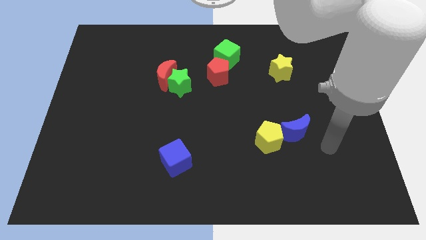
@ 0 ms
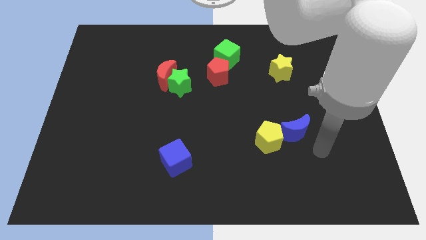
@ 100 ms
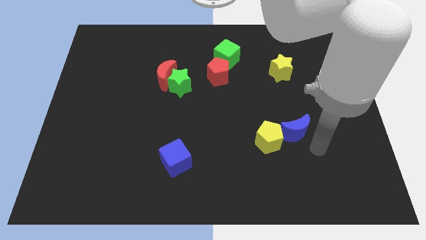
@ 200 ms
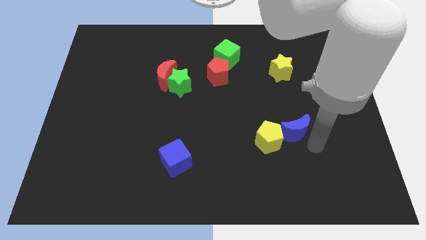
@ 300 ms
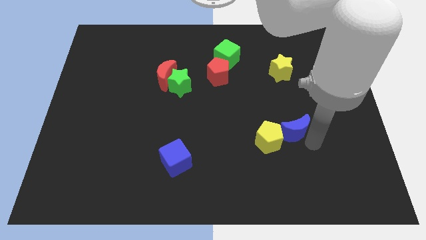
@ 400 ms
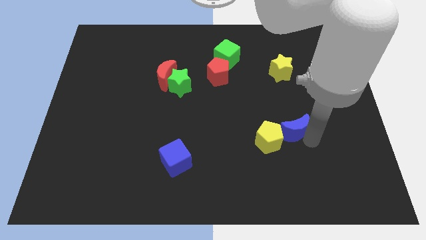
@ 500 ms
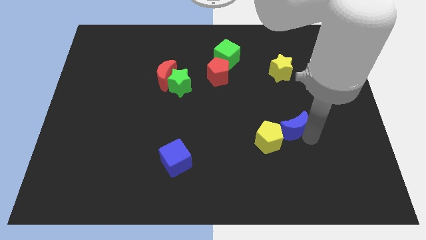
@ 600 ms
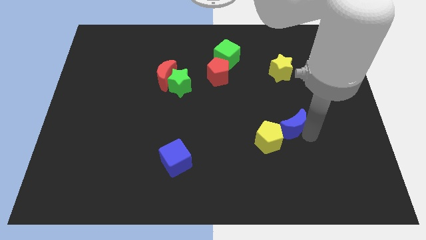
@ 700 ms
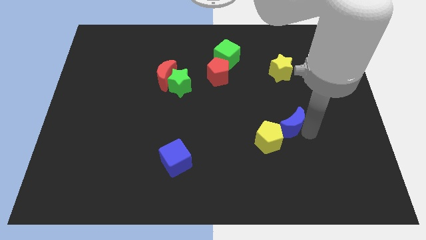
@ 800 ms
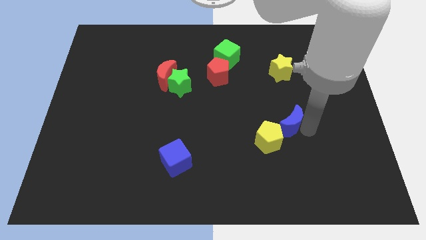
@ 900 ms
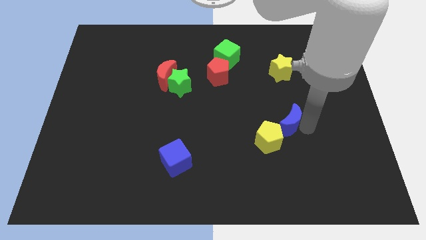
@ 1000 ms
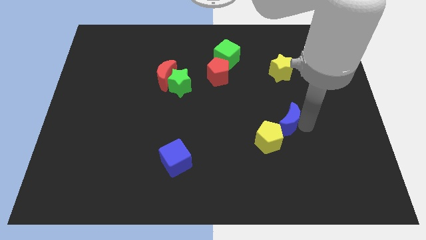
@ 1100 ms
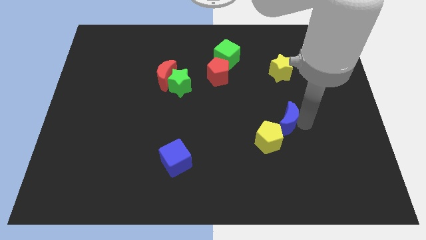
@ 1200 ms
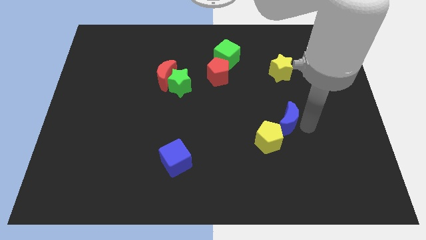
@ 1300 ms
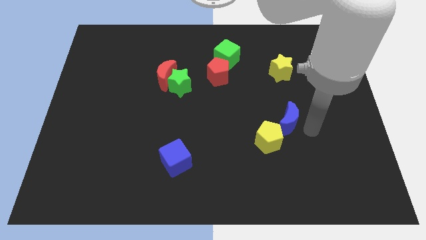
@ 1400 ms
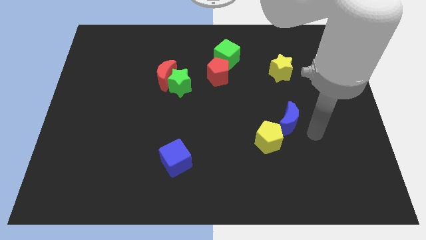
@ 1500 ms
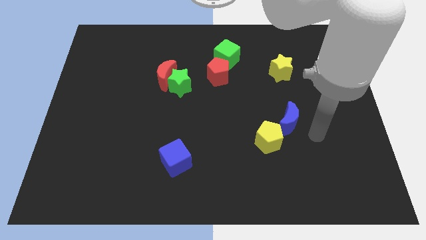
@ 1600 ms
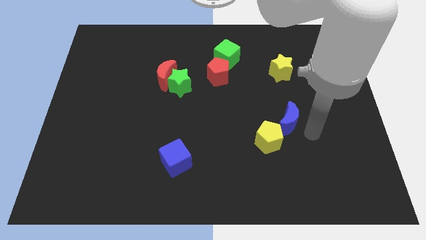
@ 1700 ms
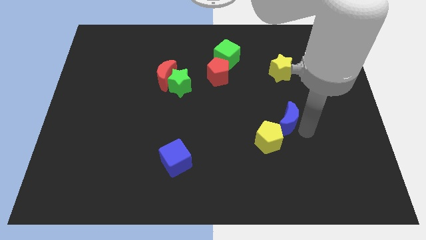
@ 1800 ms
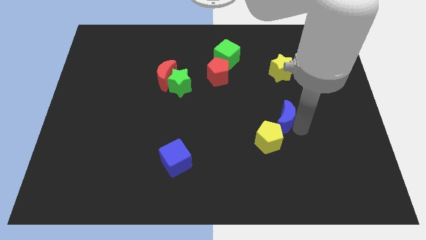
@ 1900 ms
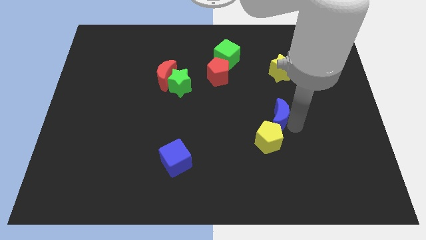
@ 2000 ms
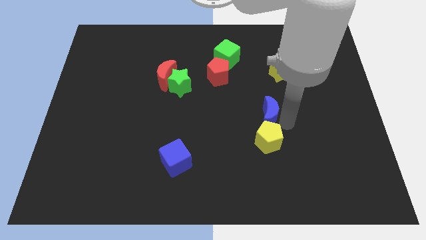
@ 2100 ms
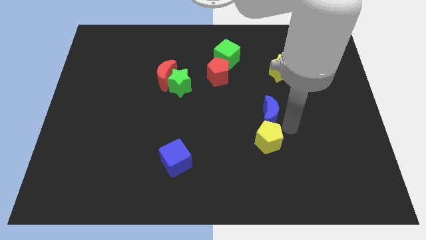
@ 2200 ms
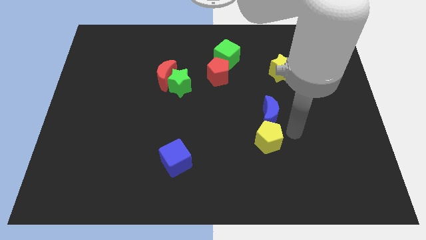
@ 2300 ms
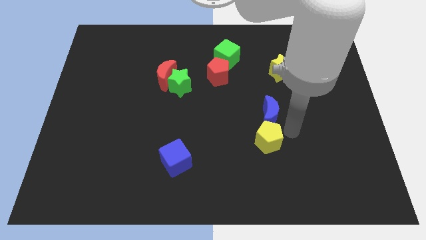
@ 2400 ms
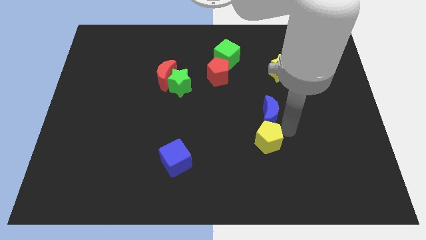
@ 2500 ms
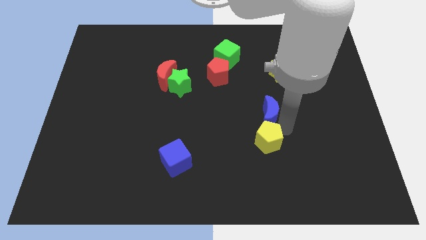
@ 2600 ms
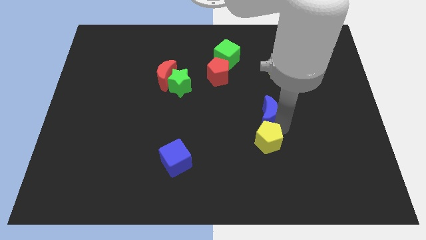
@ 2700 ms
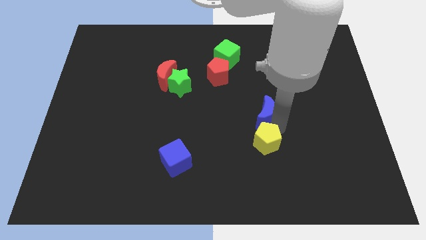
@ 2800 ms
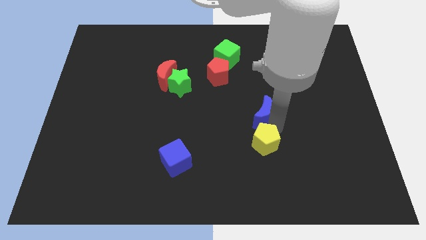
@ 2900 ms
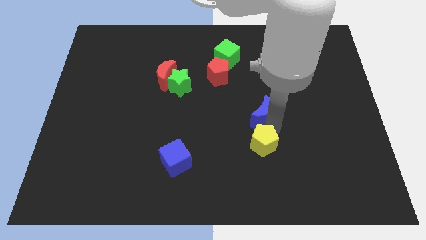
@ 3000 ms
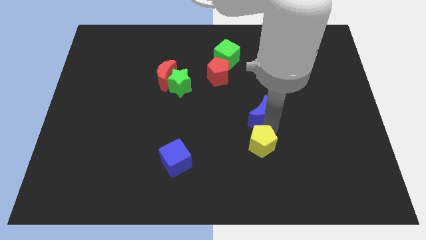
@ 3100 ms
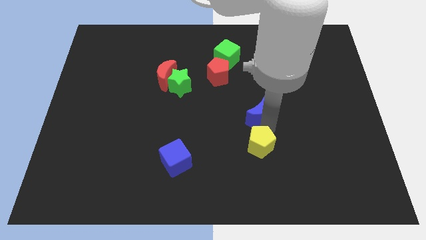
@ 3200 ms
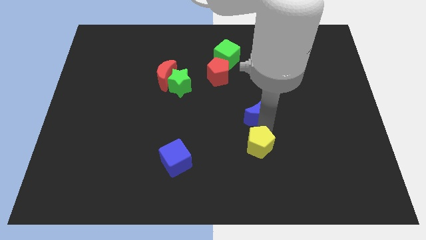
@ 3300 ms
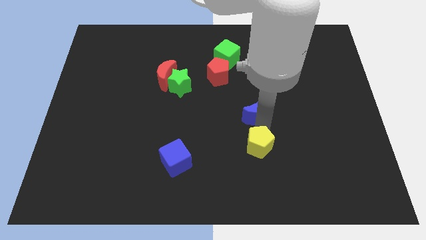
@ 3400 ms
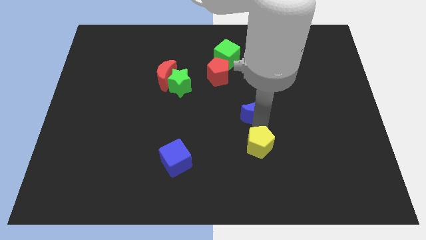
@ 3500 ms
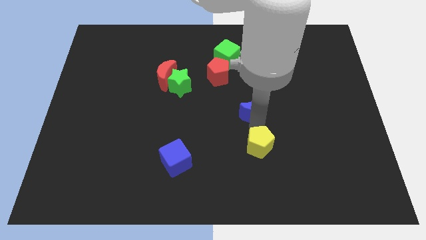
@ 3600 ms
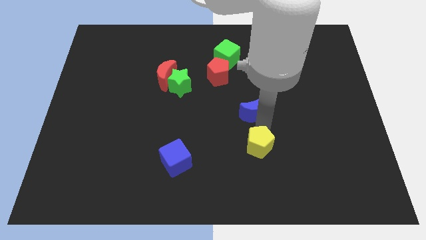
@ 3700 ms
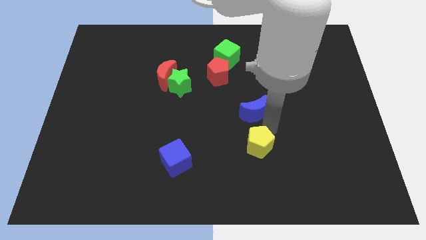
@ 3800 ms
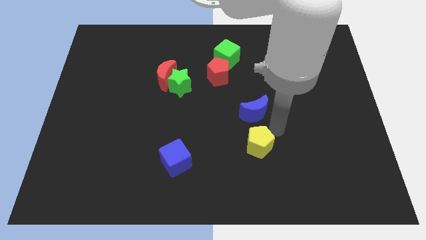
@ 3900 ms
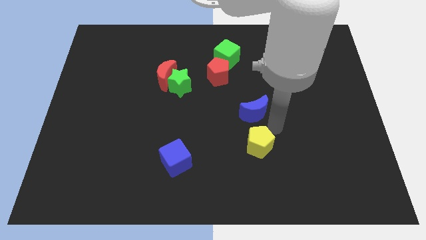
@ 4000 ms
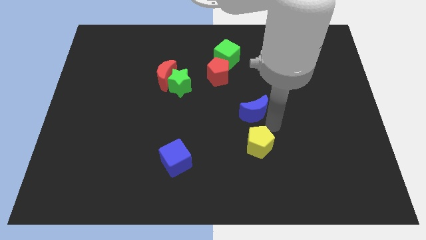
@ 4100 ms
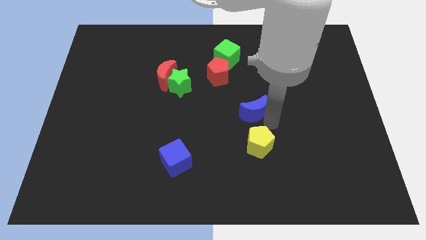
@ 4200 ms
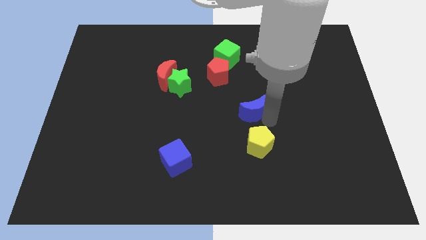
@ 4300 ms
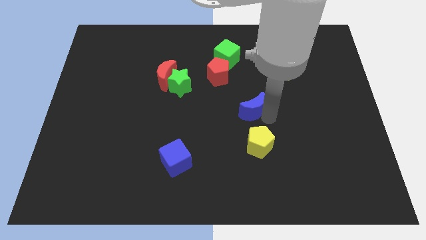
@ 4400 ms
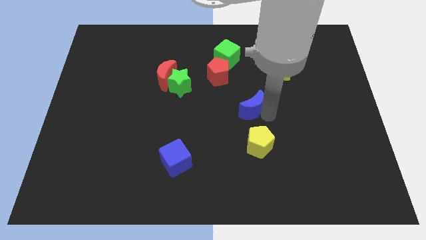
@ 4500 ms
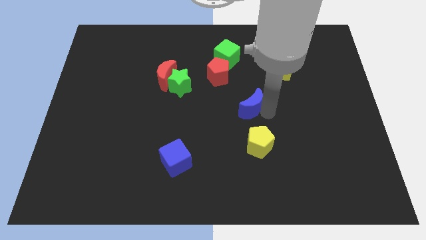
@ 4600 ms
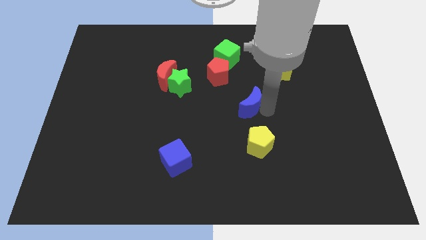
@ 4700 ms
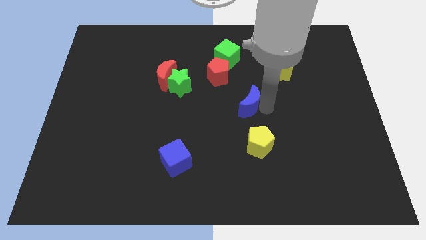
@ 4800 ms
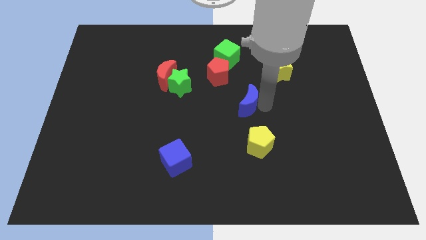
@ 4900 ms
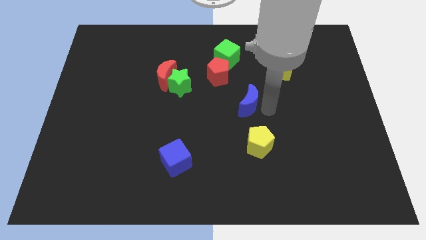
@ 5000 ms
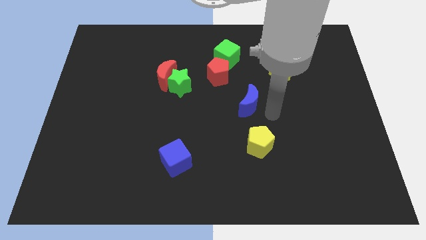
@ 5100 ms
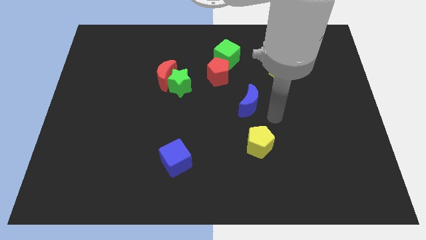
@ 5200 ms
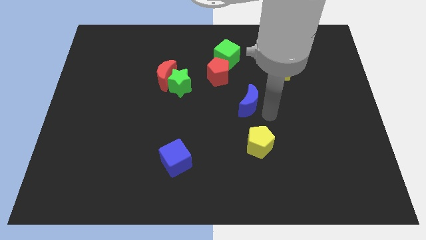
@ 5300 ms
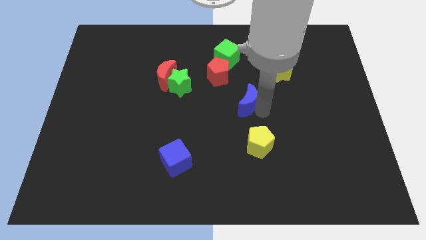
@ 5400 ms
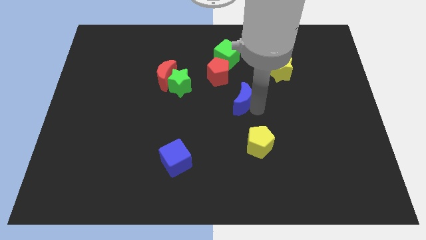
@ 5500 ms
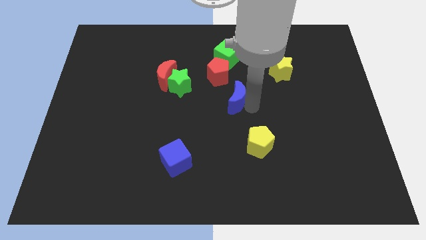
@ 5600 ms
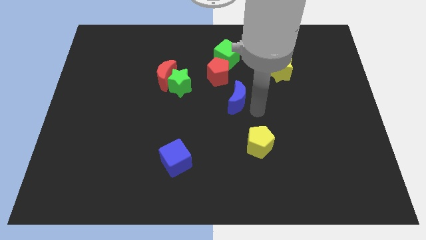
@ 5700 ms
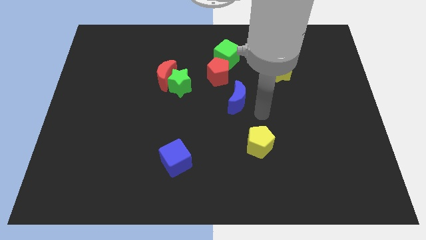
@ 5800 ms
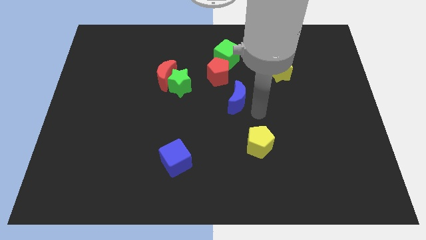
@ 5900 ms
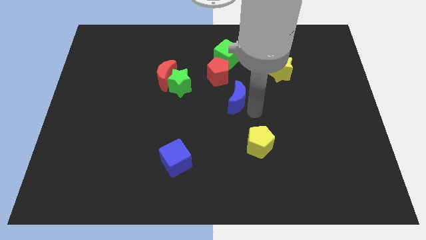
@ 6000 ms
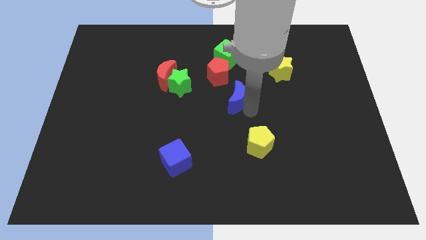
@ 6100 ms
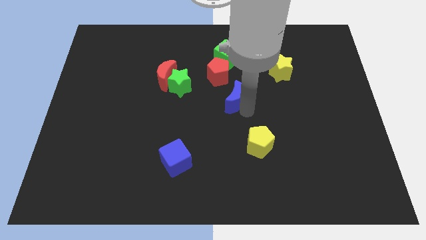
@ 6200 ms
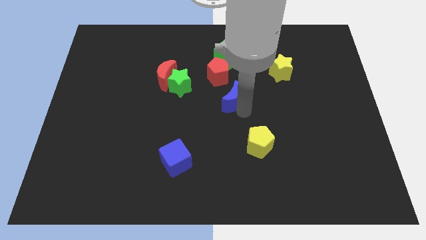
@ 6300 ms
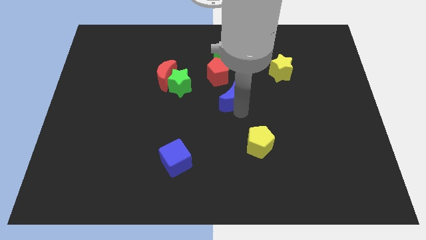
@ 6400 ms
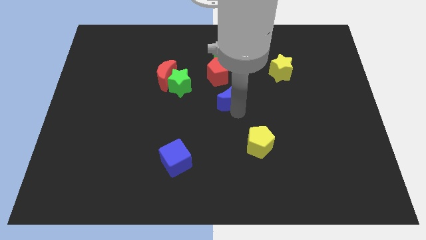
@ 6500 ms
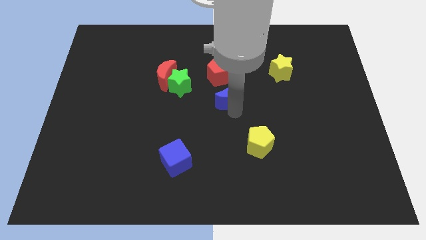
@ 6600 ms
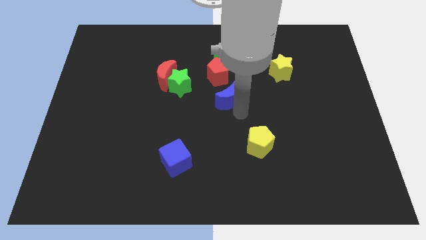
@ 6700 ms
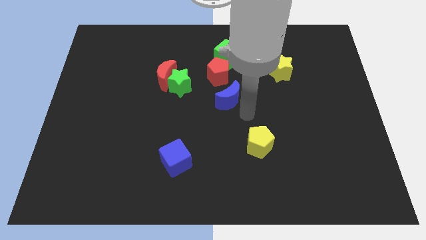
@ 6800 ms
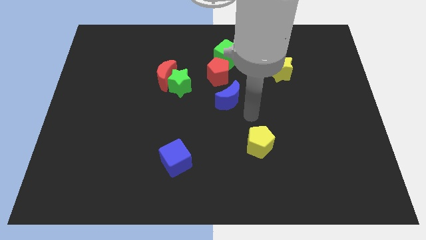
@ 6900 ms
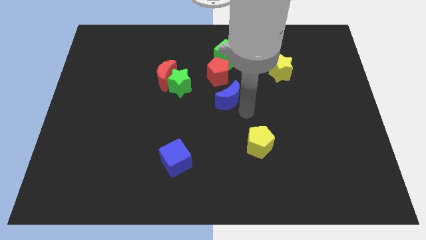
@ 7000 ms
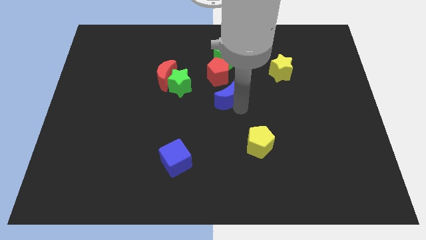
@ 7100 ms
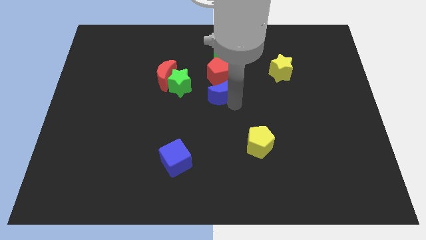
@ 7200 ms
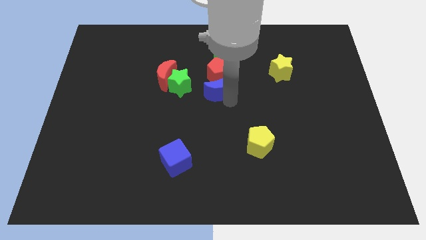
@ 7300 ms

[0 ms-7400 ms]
push the blue moon diagonally upwards and to the left

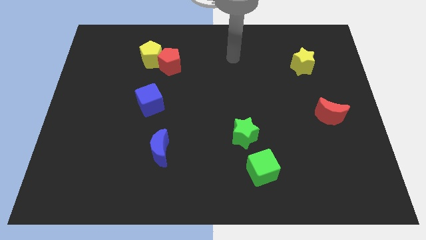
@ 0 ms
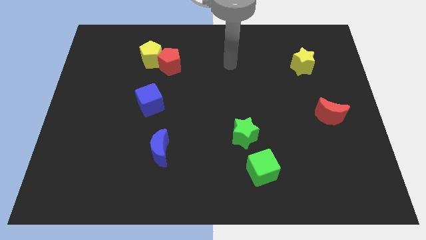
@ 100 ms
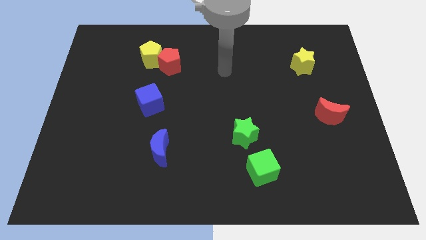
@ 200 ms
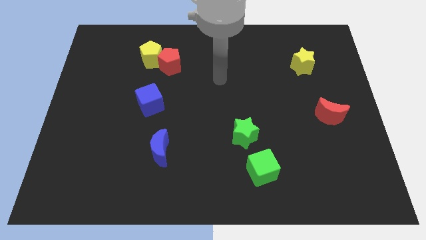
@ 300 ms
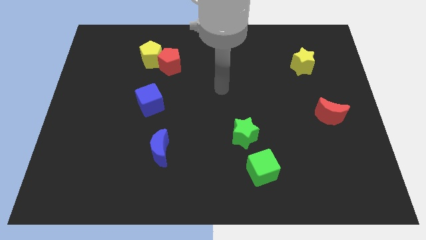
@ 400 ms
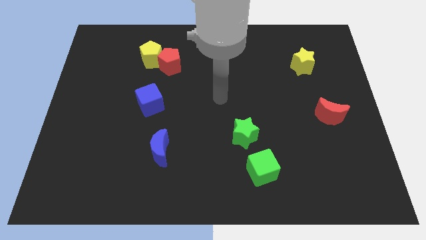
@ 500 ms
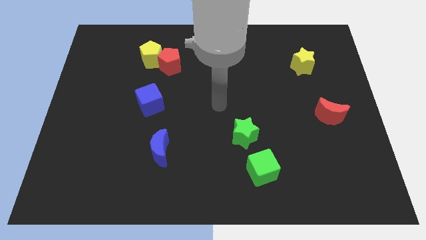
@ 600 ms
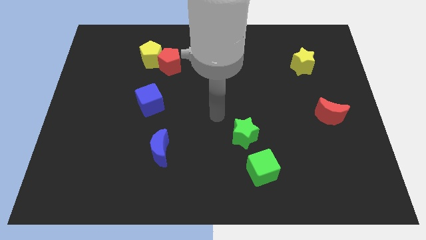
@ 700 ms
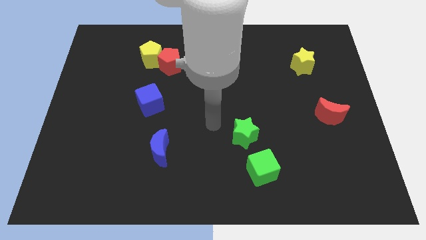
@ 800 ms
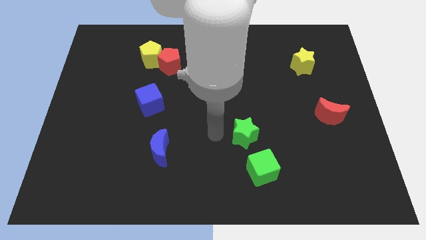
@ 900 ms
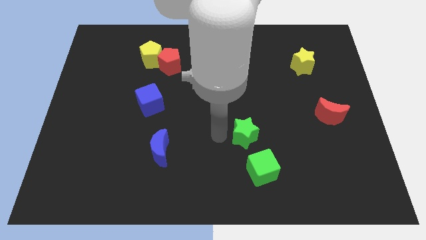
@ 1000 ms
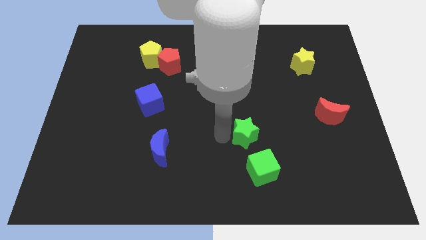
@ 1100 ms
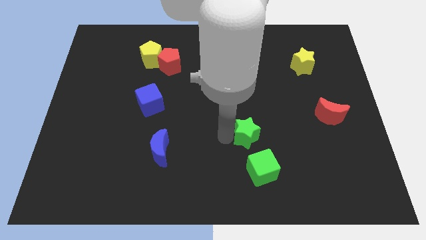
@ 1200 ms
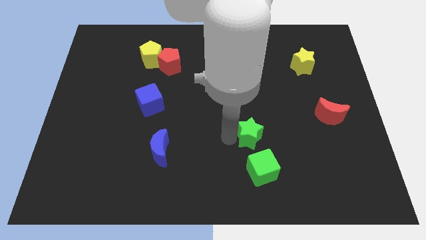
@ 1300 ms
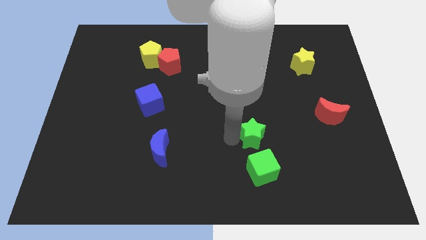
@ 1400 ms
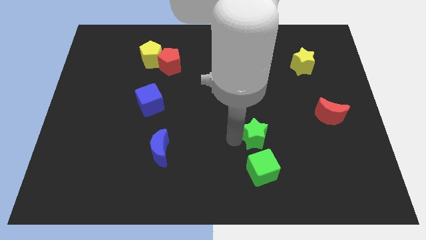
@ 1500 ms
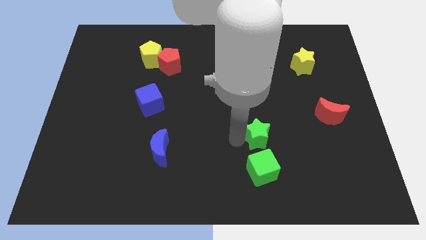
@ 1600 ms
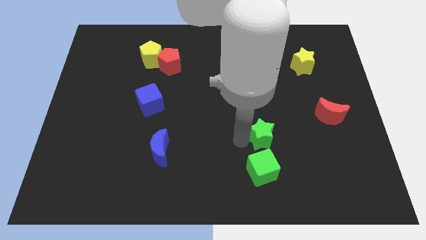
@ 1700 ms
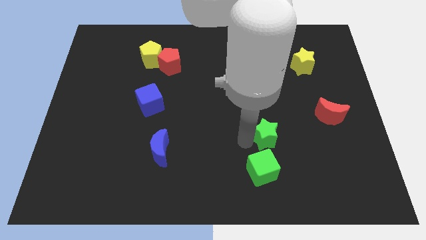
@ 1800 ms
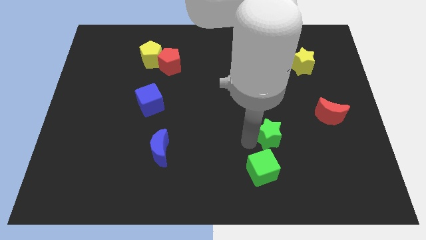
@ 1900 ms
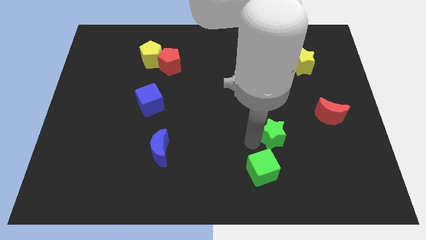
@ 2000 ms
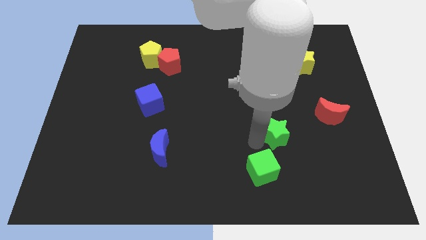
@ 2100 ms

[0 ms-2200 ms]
slide the green star somewhat to the right
